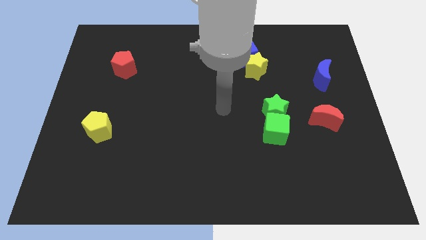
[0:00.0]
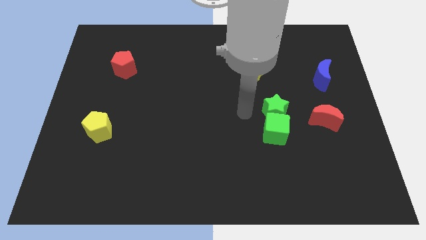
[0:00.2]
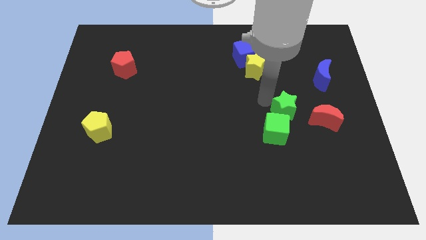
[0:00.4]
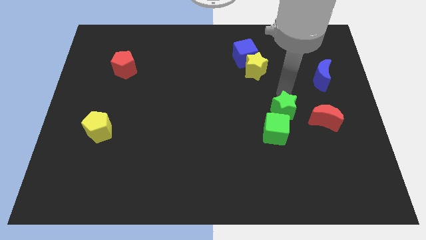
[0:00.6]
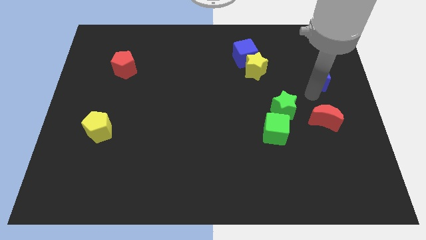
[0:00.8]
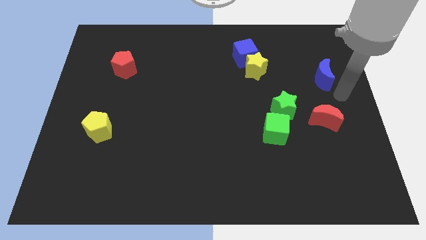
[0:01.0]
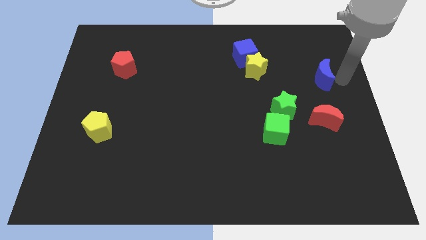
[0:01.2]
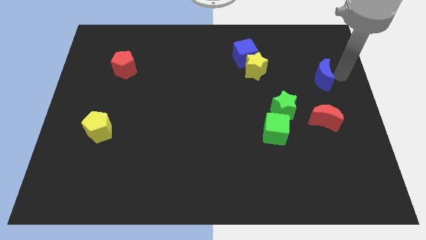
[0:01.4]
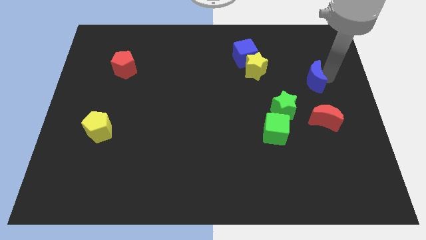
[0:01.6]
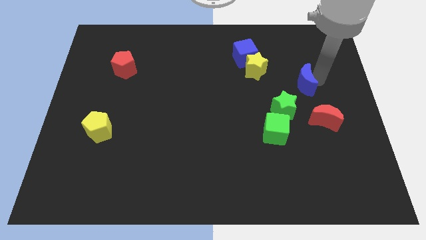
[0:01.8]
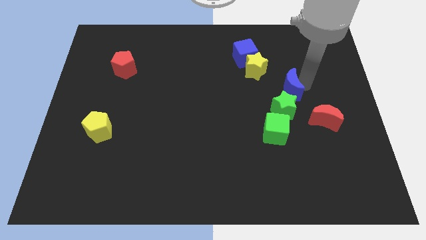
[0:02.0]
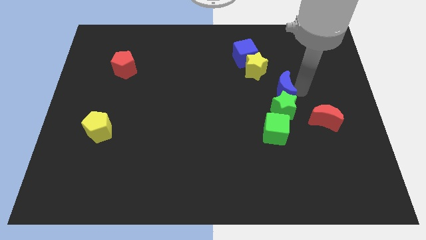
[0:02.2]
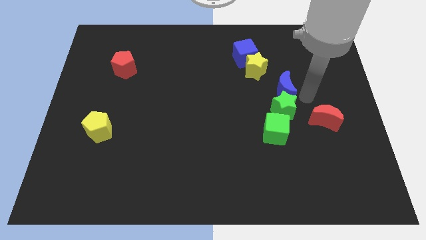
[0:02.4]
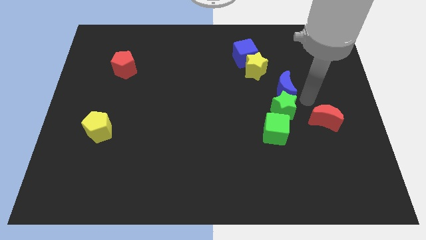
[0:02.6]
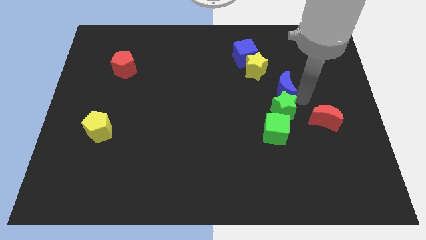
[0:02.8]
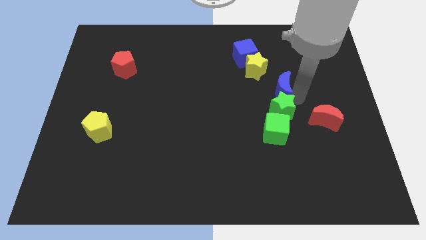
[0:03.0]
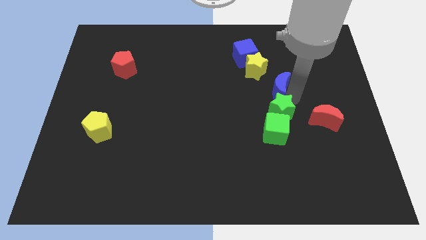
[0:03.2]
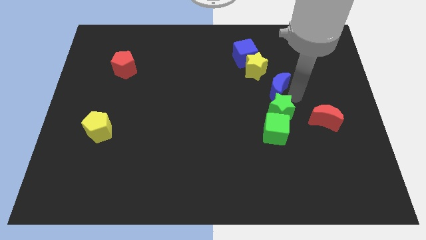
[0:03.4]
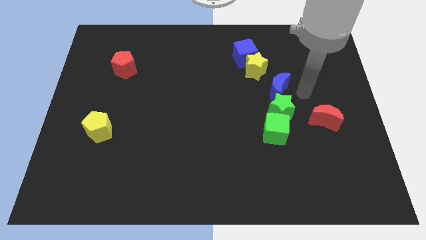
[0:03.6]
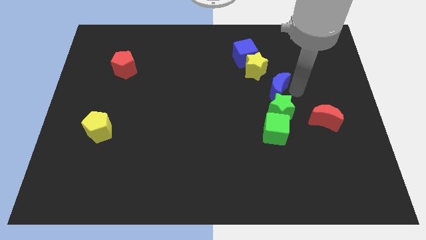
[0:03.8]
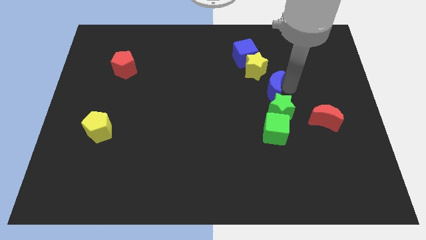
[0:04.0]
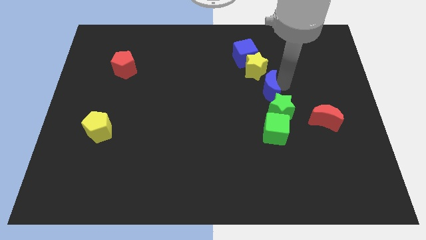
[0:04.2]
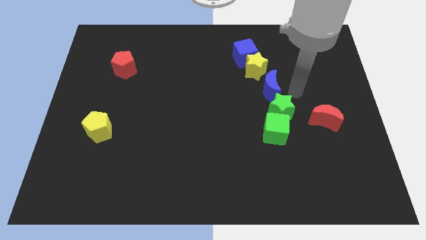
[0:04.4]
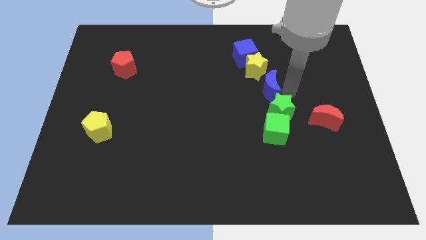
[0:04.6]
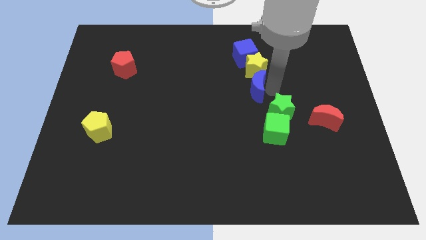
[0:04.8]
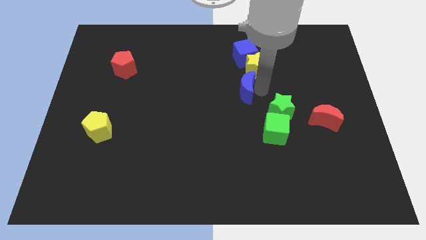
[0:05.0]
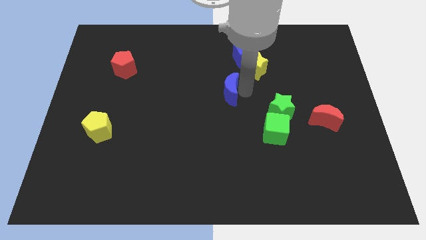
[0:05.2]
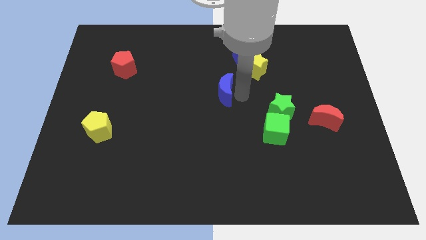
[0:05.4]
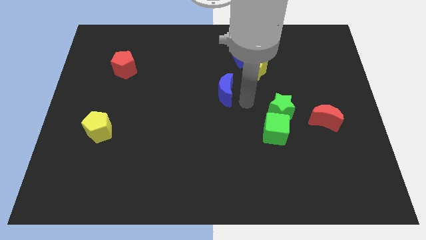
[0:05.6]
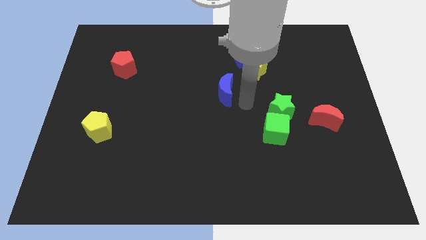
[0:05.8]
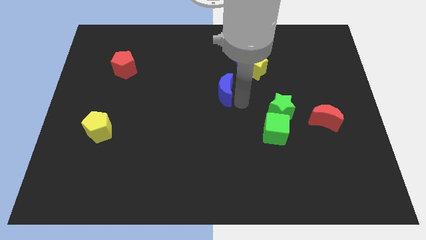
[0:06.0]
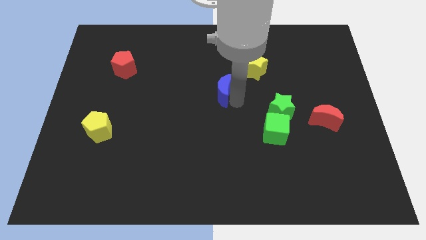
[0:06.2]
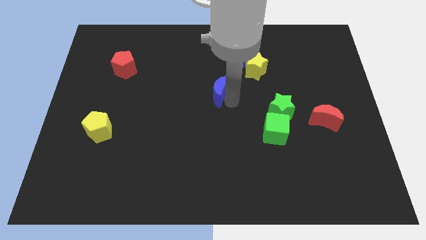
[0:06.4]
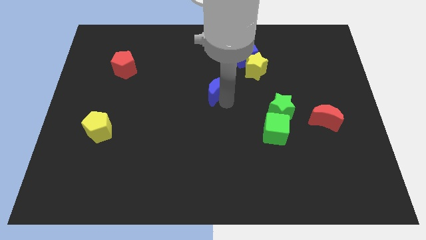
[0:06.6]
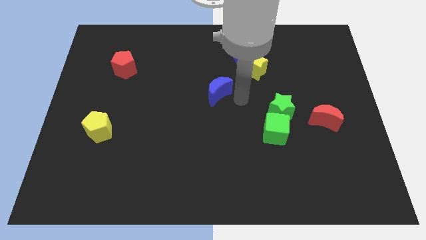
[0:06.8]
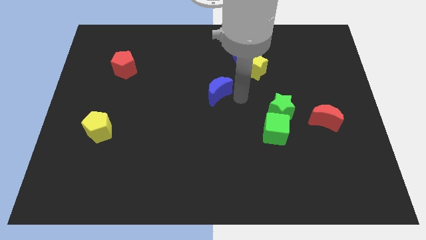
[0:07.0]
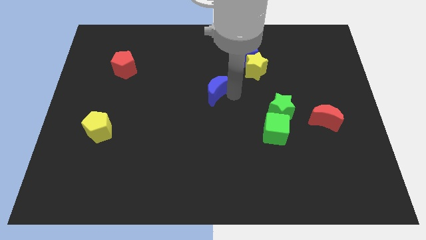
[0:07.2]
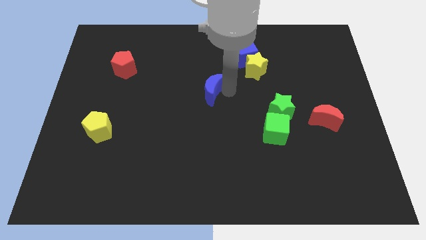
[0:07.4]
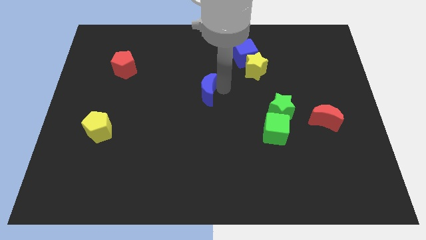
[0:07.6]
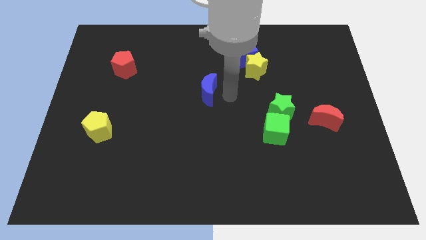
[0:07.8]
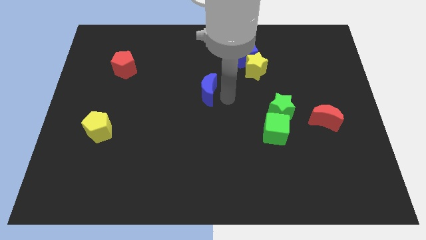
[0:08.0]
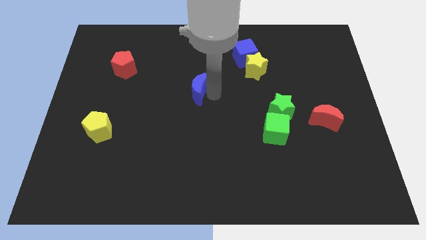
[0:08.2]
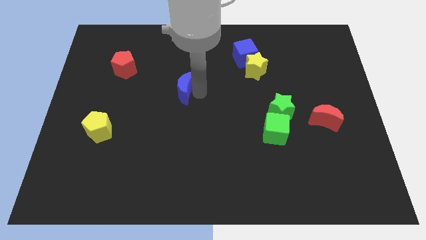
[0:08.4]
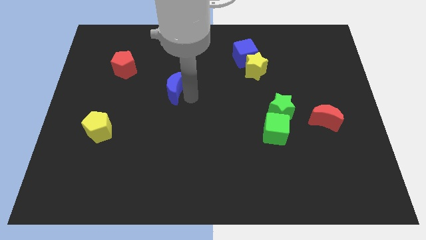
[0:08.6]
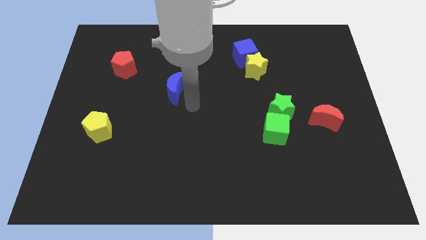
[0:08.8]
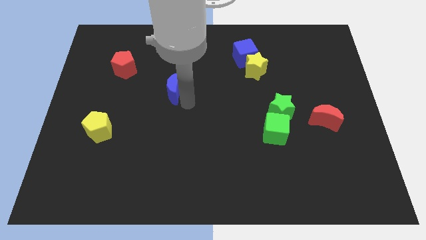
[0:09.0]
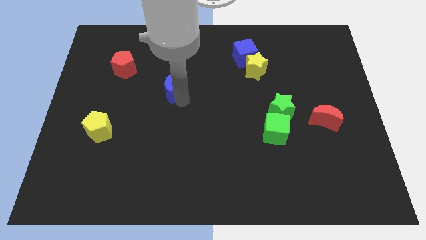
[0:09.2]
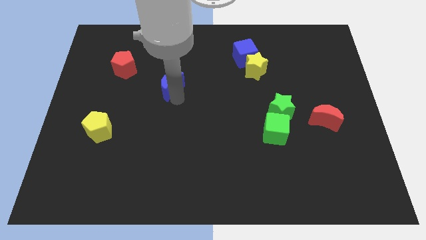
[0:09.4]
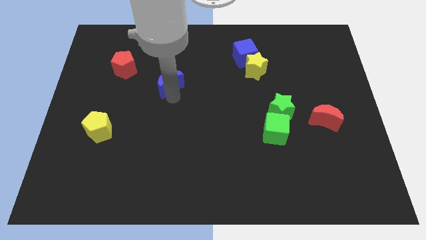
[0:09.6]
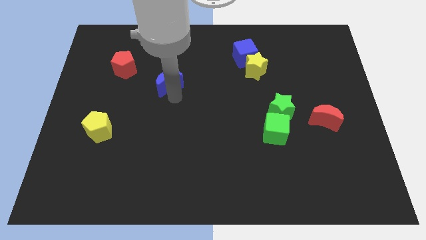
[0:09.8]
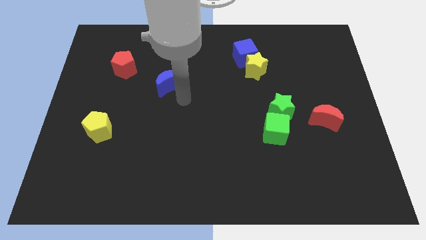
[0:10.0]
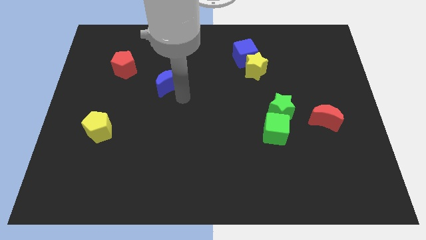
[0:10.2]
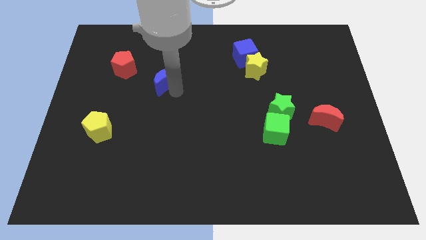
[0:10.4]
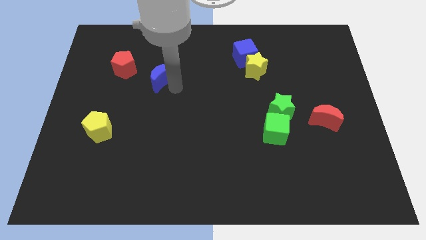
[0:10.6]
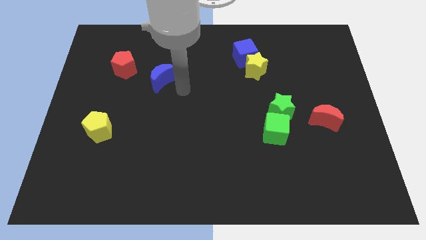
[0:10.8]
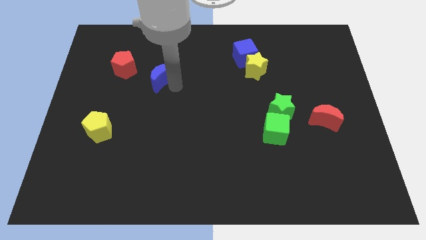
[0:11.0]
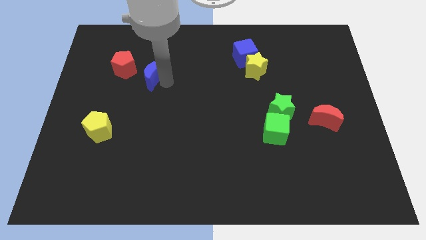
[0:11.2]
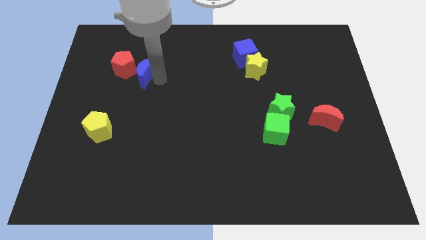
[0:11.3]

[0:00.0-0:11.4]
move the blue moon to the red pentagon

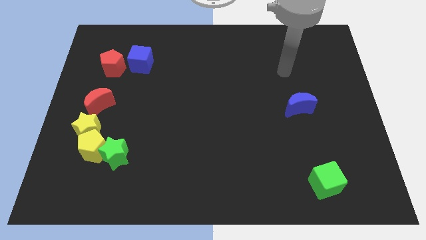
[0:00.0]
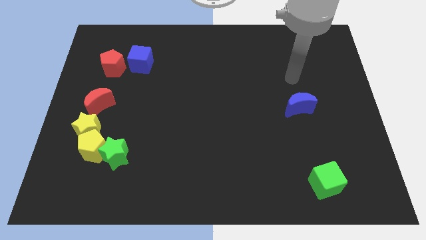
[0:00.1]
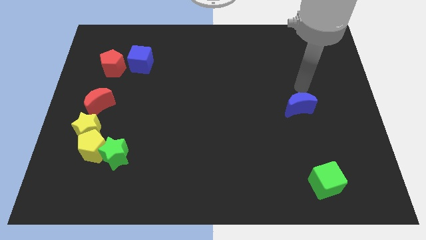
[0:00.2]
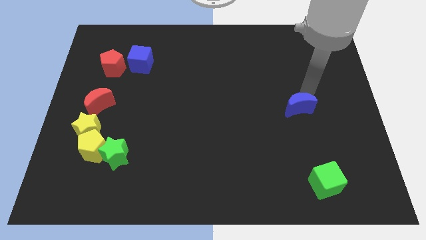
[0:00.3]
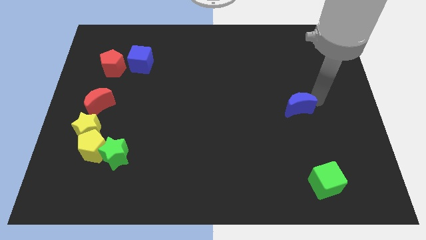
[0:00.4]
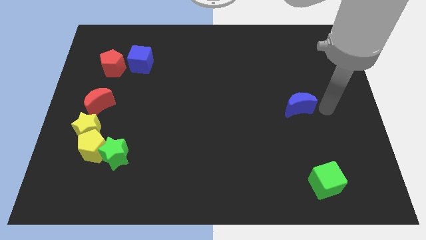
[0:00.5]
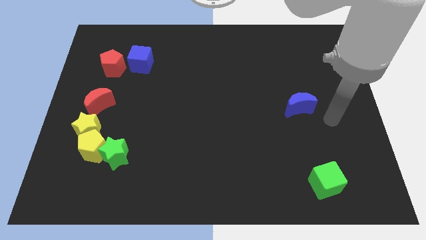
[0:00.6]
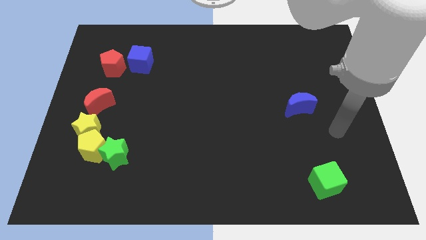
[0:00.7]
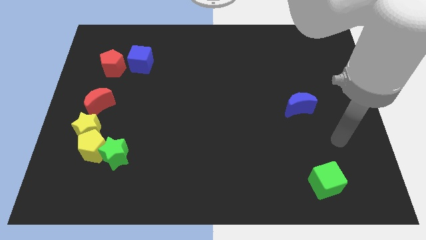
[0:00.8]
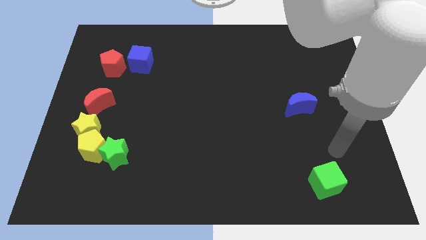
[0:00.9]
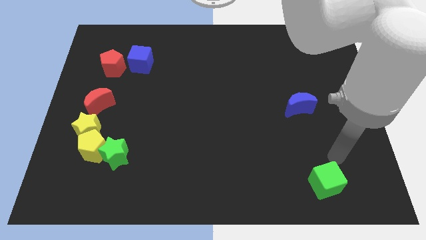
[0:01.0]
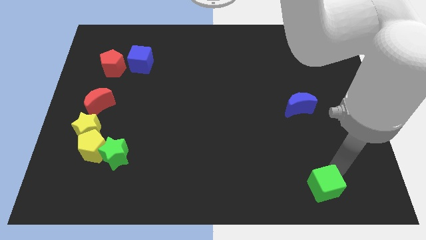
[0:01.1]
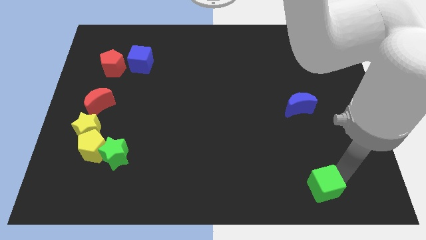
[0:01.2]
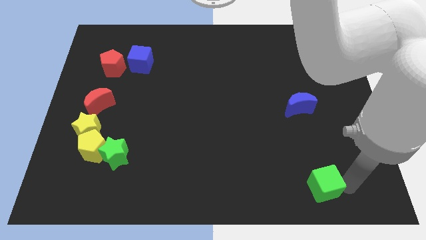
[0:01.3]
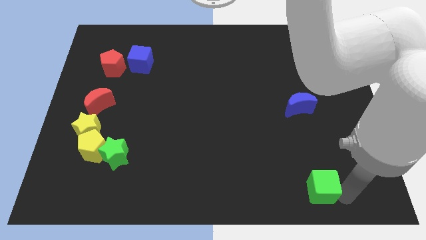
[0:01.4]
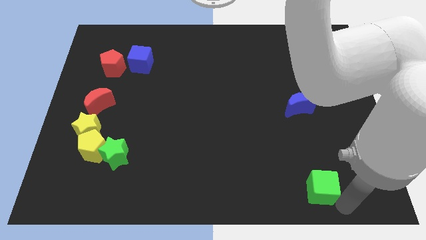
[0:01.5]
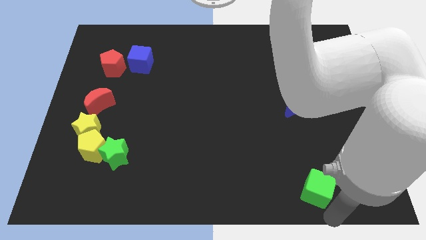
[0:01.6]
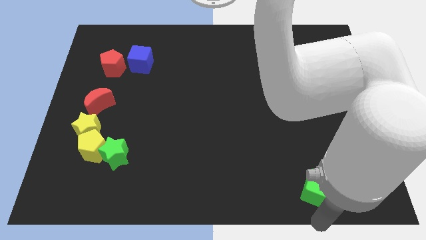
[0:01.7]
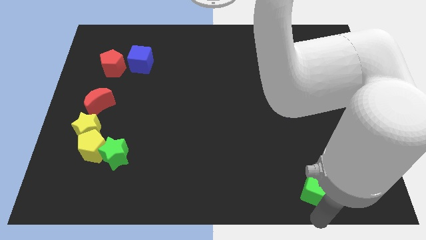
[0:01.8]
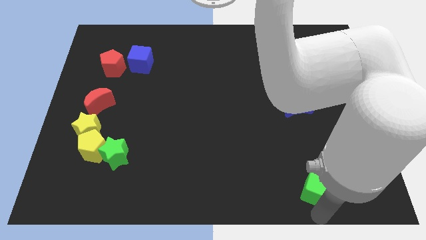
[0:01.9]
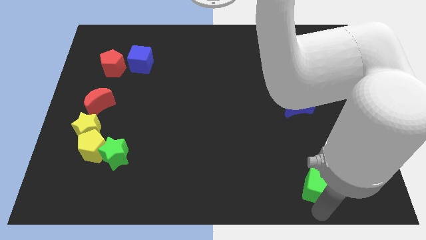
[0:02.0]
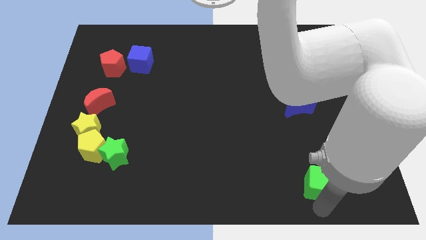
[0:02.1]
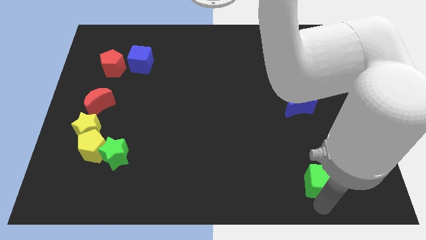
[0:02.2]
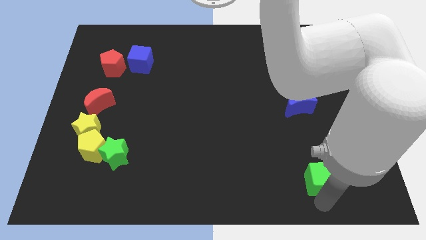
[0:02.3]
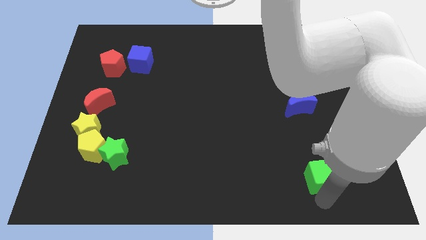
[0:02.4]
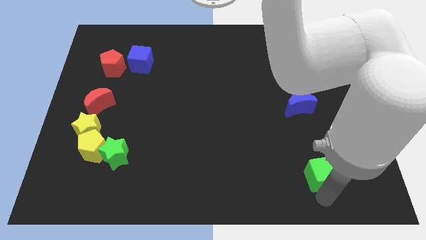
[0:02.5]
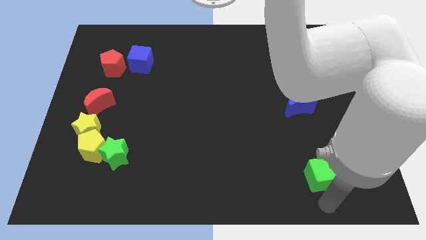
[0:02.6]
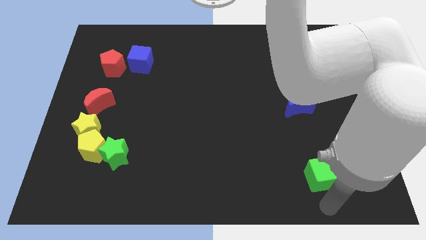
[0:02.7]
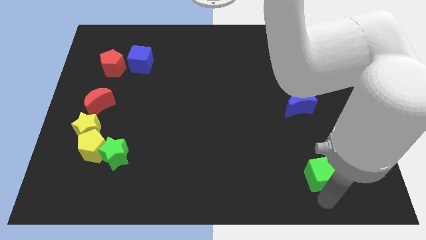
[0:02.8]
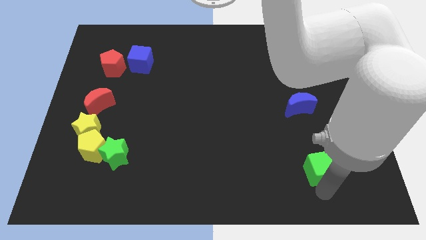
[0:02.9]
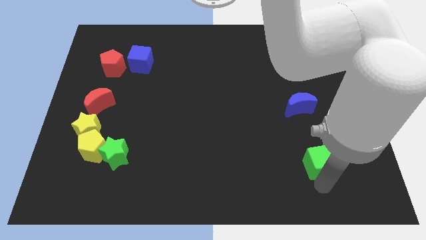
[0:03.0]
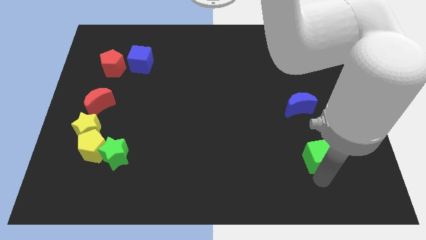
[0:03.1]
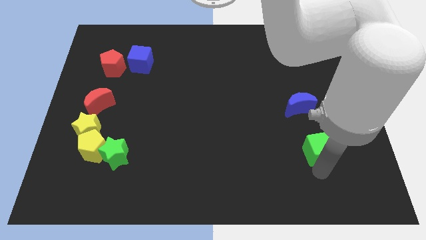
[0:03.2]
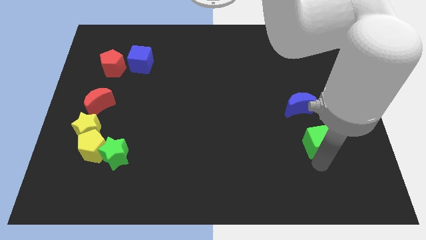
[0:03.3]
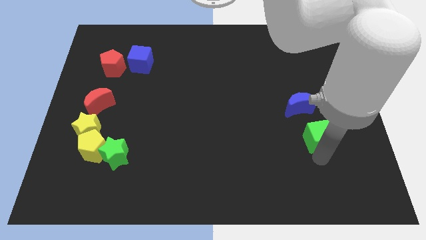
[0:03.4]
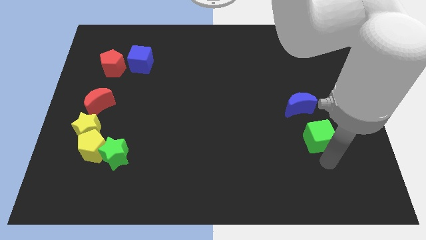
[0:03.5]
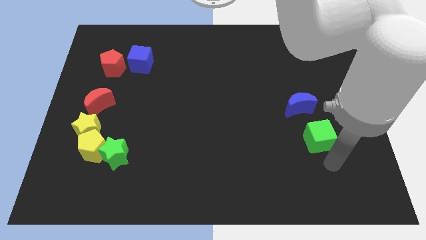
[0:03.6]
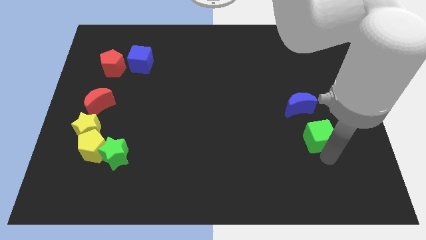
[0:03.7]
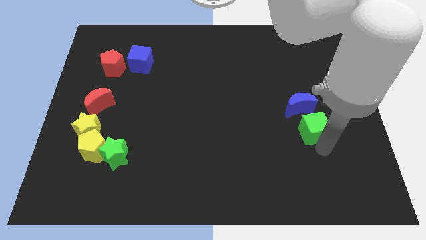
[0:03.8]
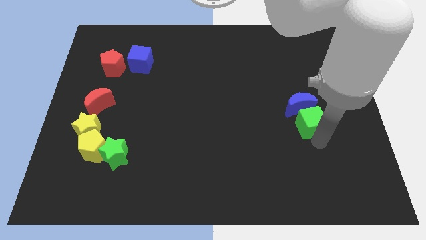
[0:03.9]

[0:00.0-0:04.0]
move the green cube towards the blue moon
